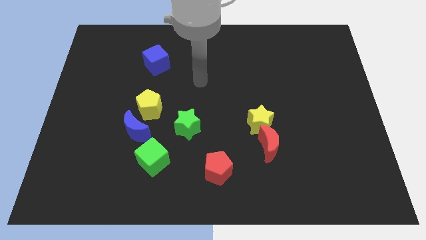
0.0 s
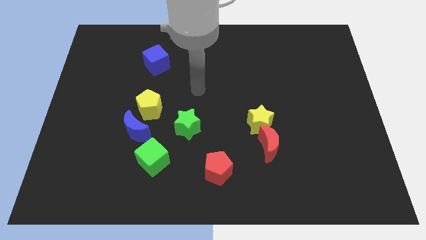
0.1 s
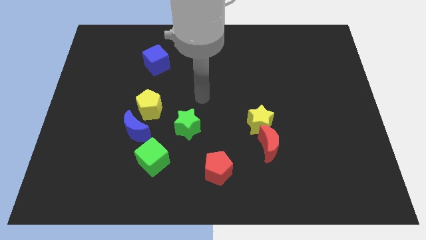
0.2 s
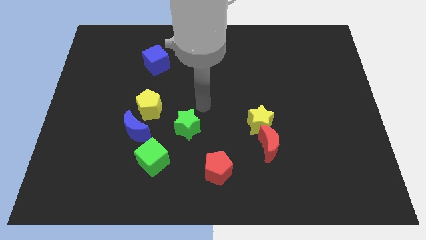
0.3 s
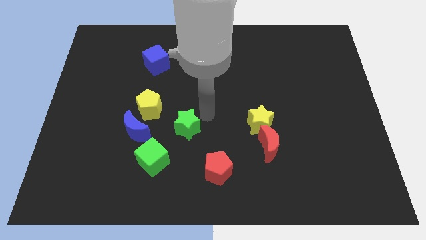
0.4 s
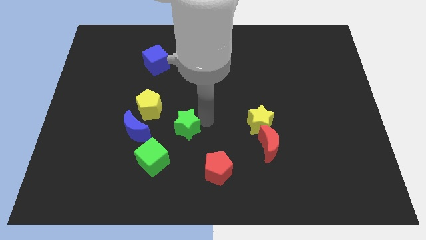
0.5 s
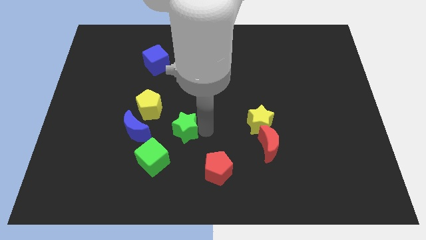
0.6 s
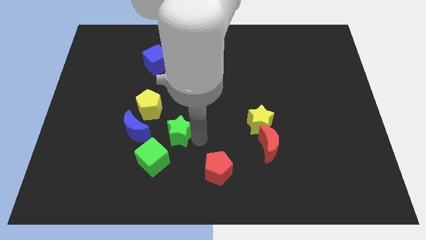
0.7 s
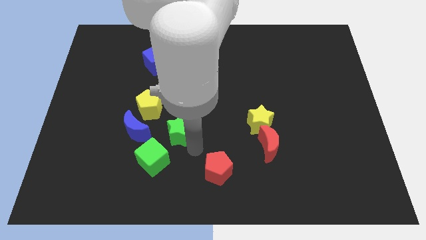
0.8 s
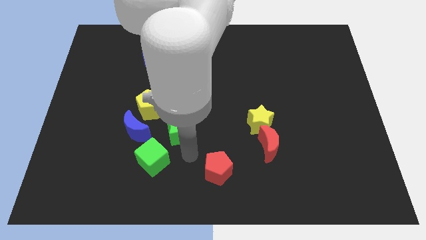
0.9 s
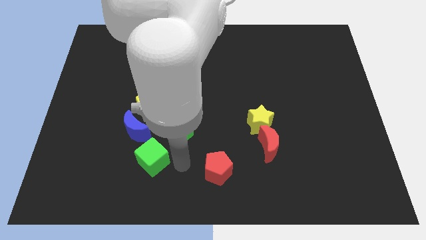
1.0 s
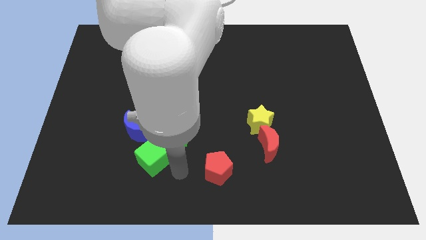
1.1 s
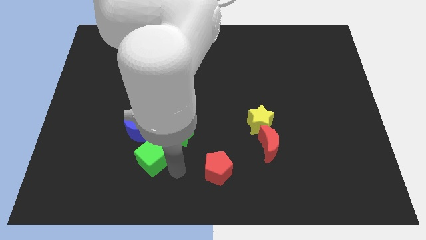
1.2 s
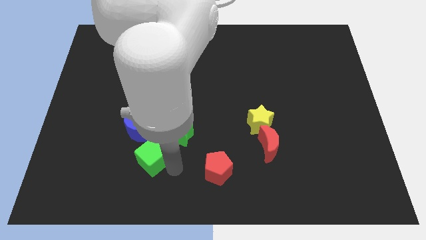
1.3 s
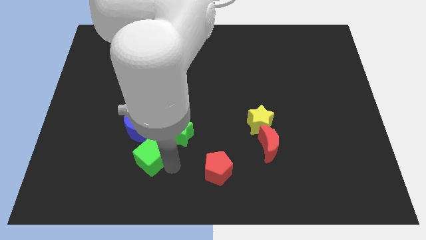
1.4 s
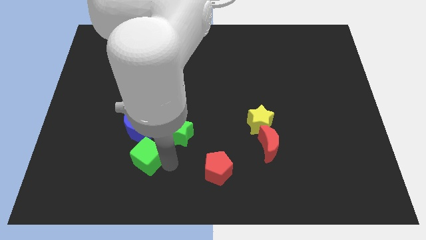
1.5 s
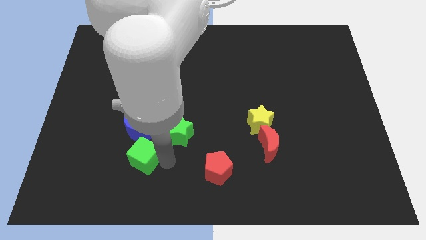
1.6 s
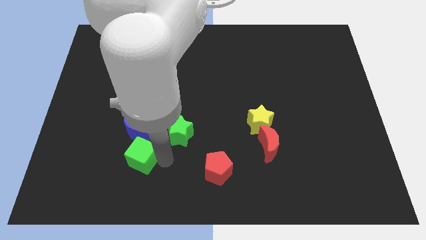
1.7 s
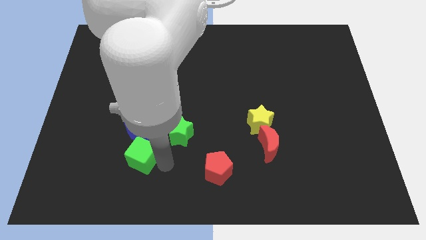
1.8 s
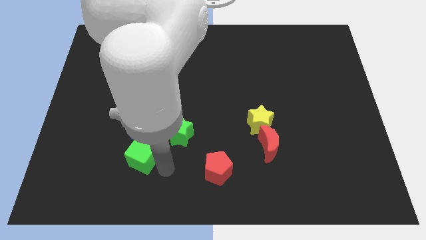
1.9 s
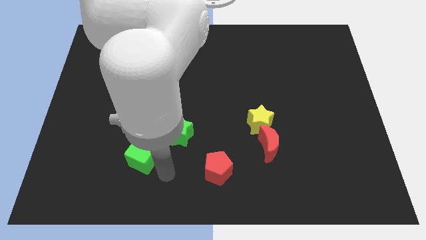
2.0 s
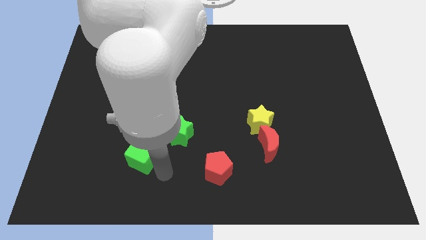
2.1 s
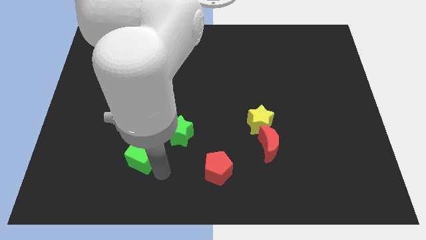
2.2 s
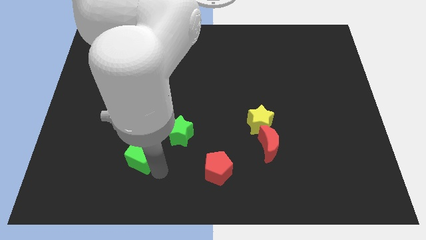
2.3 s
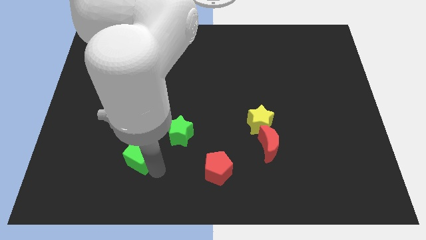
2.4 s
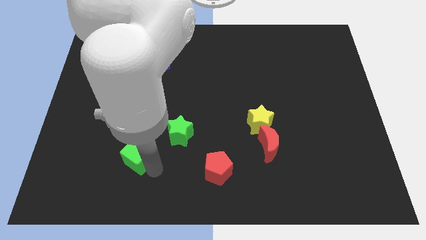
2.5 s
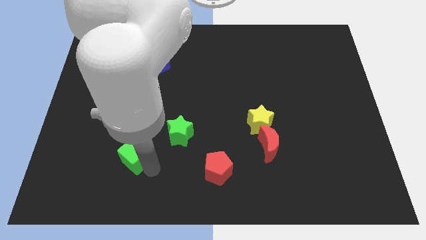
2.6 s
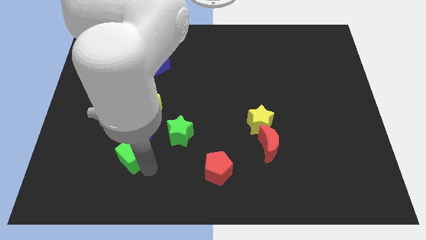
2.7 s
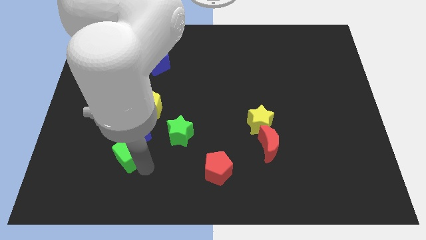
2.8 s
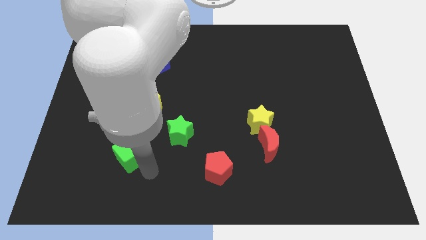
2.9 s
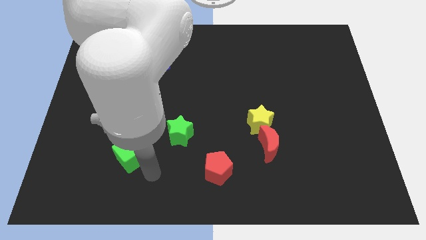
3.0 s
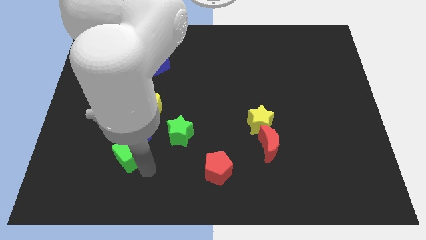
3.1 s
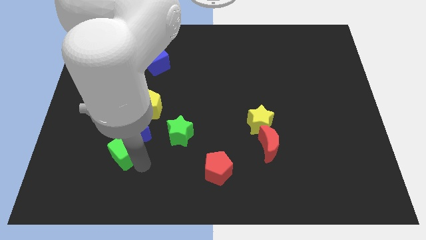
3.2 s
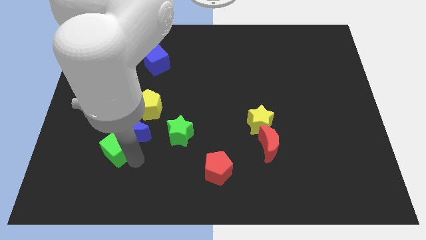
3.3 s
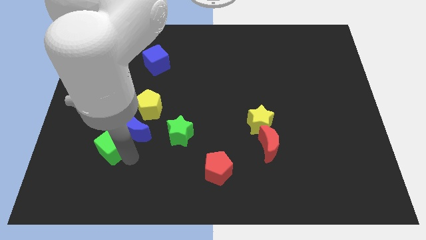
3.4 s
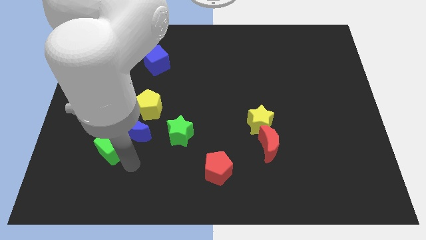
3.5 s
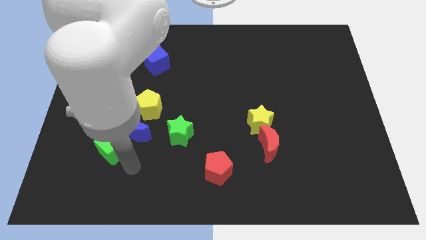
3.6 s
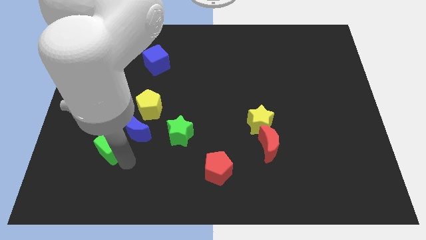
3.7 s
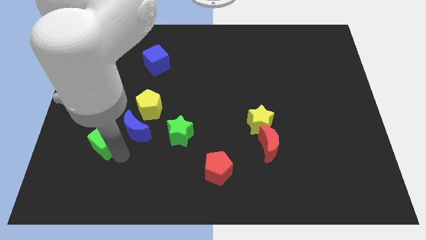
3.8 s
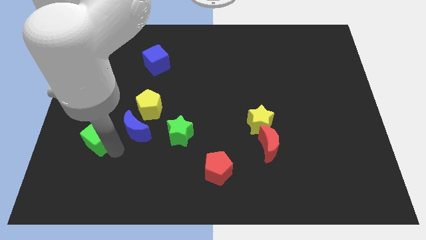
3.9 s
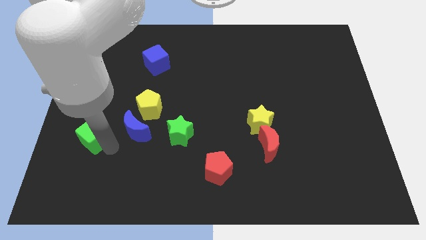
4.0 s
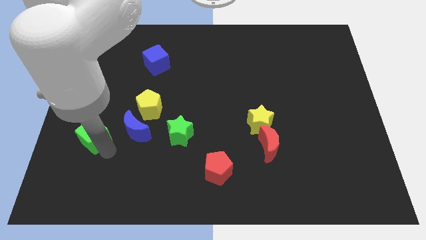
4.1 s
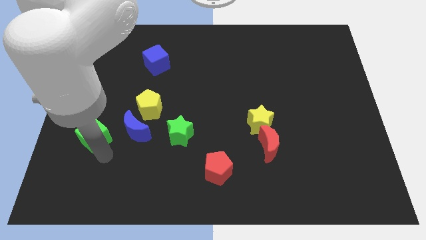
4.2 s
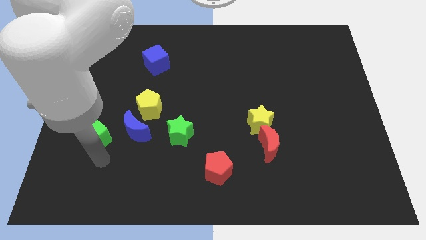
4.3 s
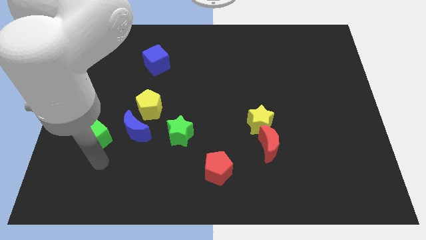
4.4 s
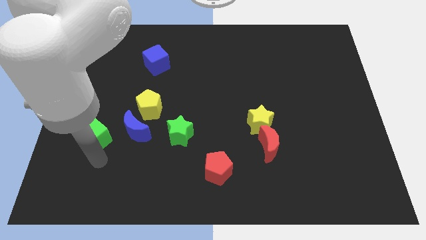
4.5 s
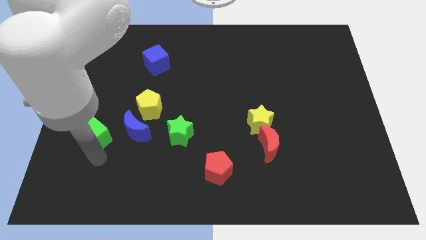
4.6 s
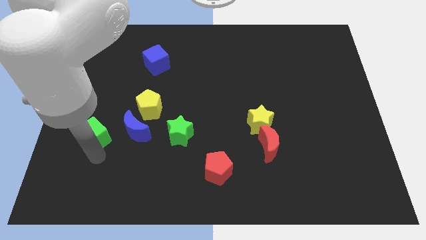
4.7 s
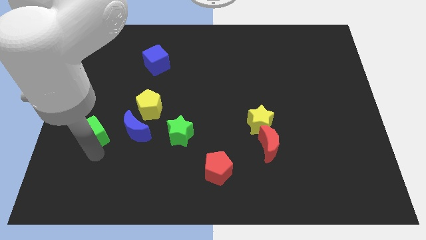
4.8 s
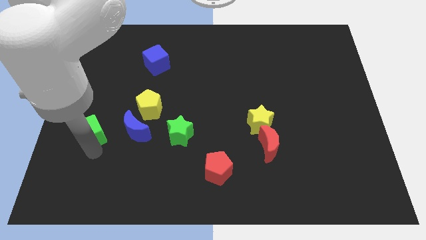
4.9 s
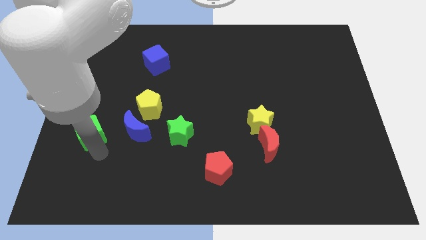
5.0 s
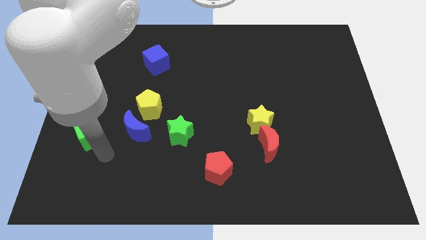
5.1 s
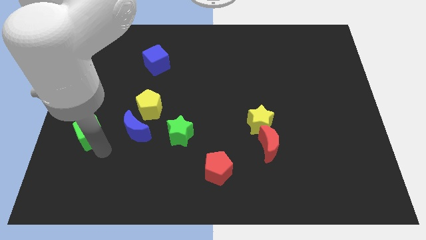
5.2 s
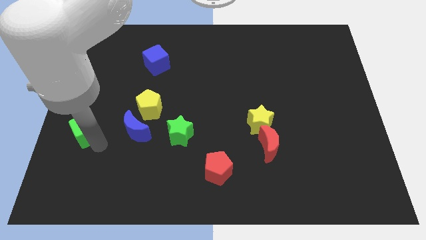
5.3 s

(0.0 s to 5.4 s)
put the green cube to the center left
